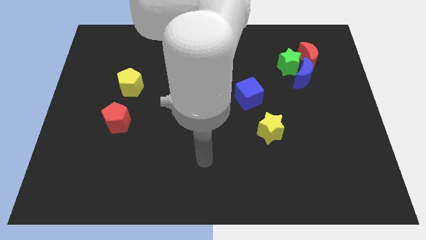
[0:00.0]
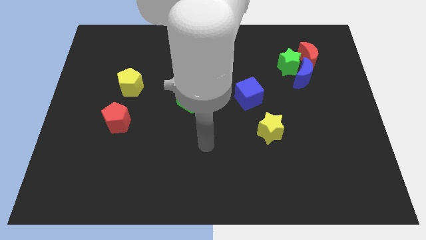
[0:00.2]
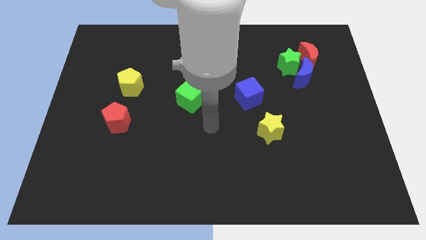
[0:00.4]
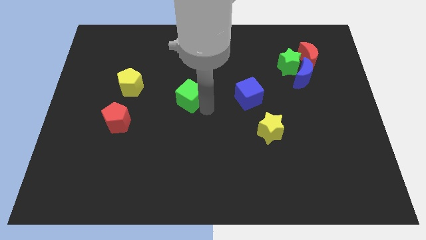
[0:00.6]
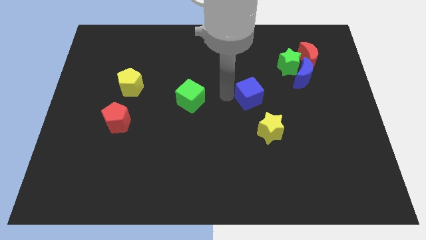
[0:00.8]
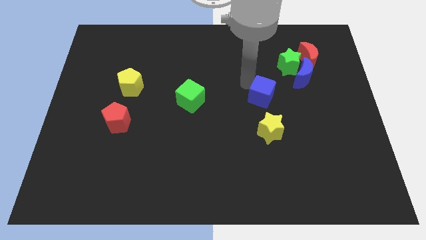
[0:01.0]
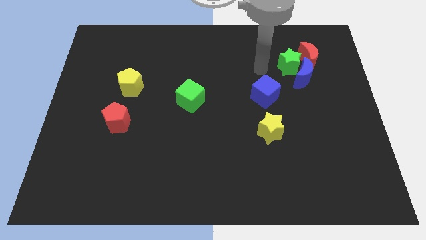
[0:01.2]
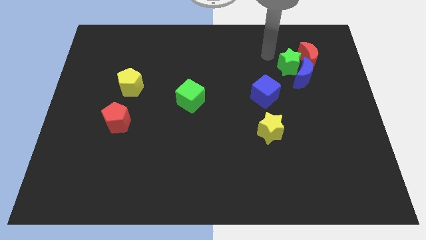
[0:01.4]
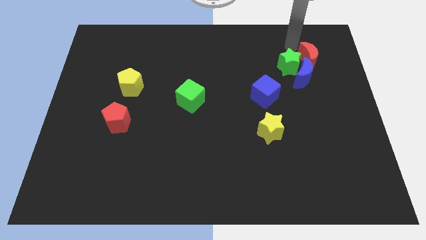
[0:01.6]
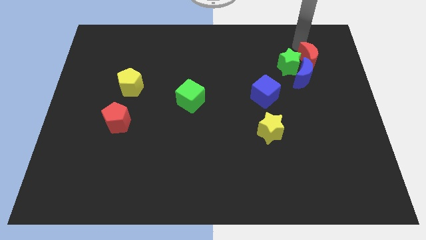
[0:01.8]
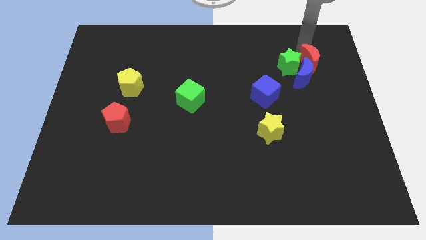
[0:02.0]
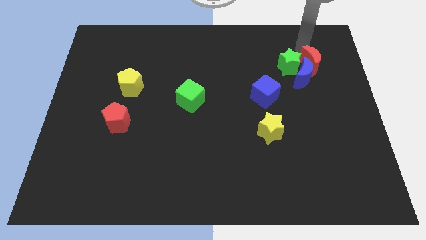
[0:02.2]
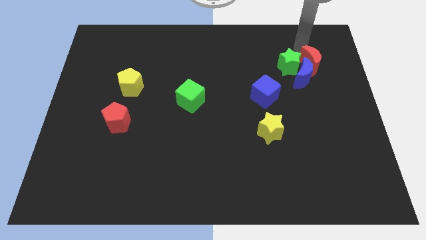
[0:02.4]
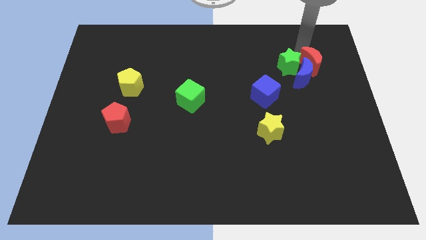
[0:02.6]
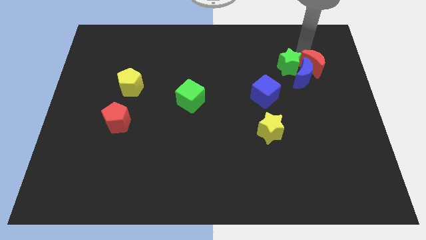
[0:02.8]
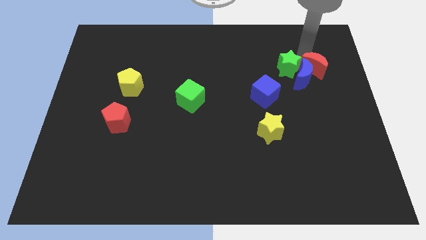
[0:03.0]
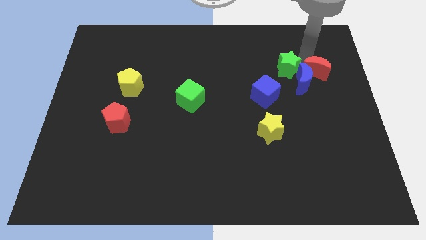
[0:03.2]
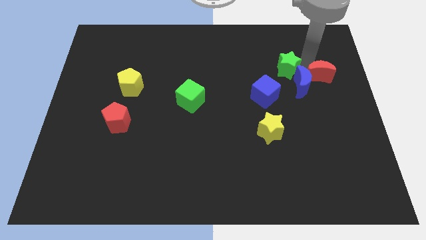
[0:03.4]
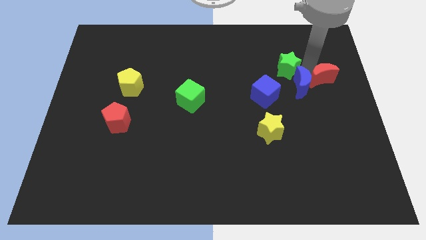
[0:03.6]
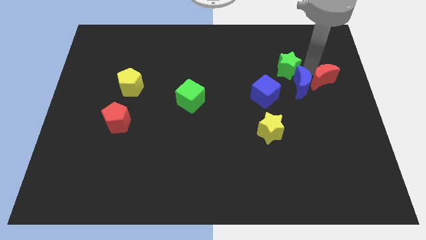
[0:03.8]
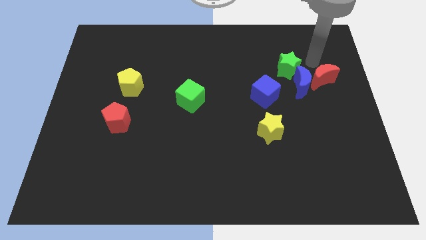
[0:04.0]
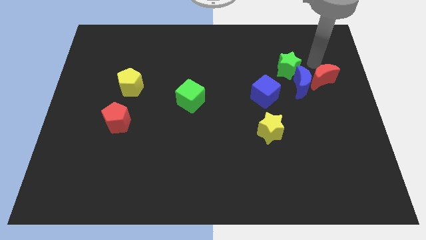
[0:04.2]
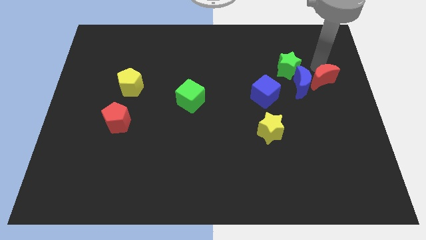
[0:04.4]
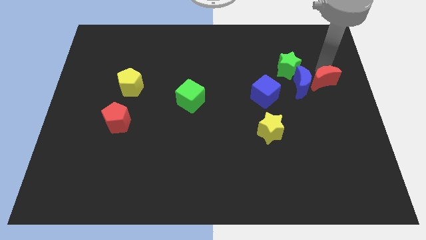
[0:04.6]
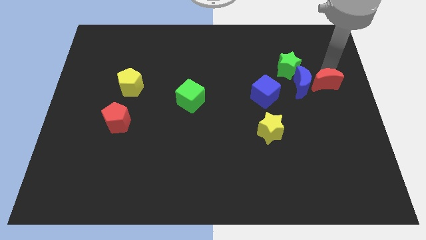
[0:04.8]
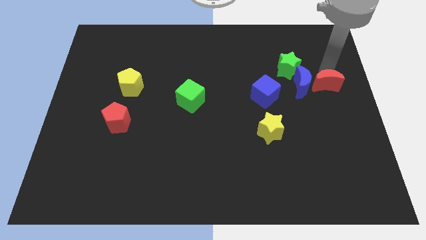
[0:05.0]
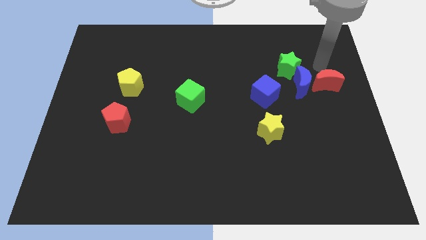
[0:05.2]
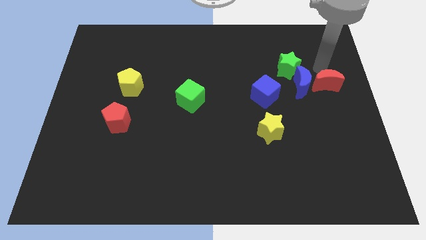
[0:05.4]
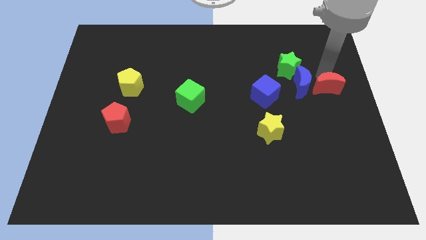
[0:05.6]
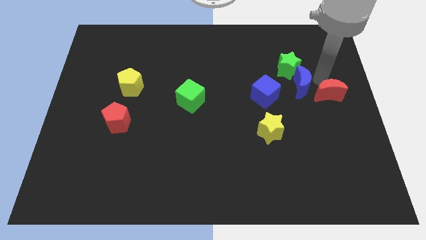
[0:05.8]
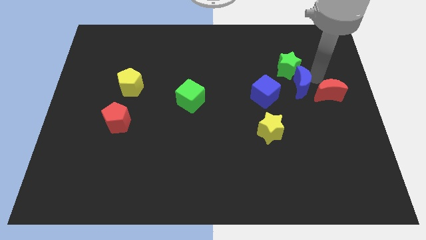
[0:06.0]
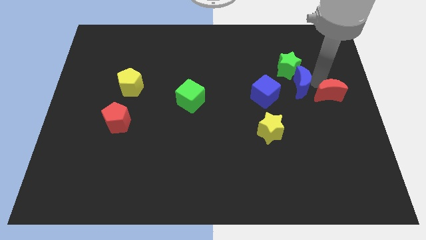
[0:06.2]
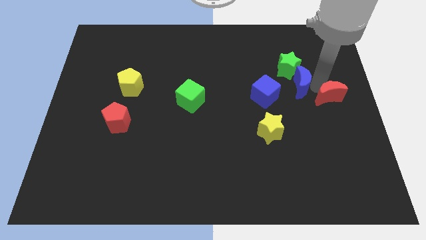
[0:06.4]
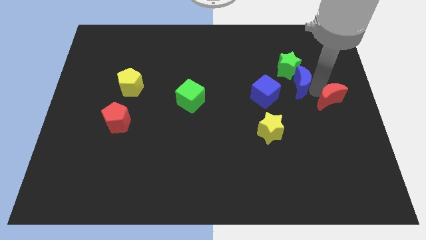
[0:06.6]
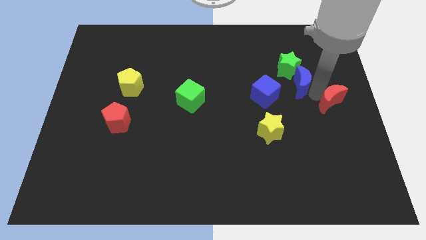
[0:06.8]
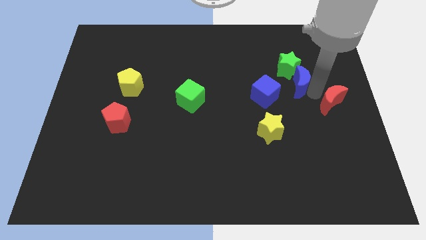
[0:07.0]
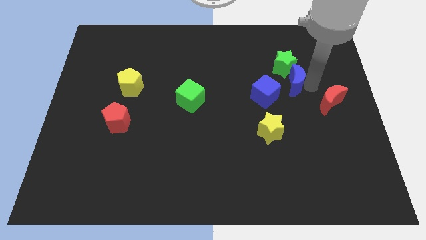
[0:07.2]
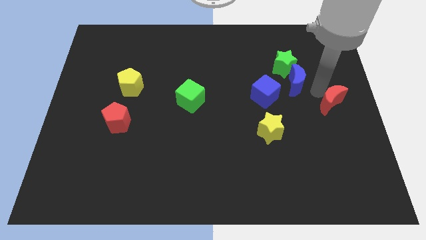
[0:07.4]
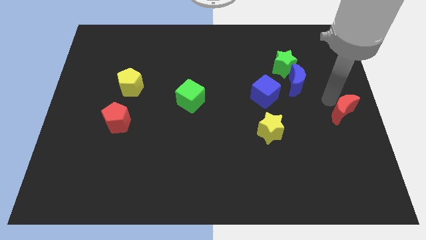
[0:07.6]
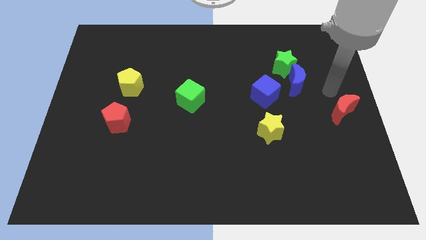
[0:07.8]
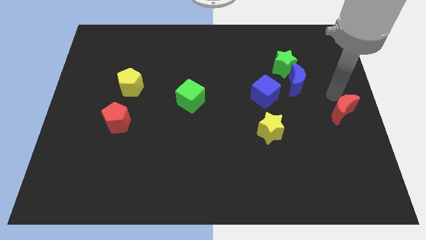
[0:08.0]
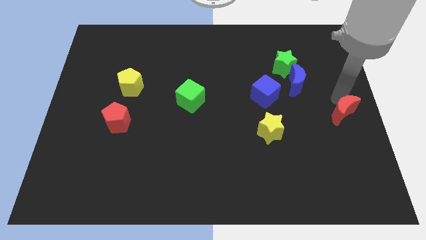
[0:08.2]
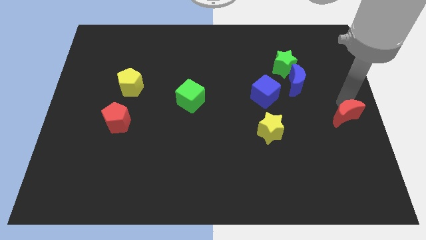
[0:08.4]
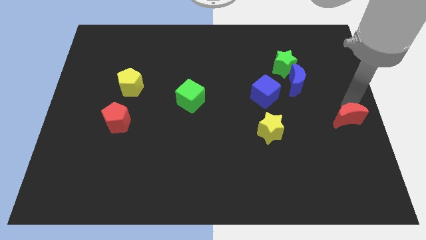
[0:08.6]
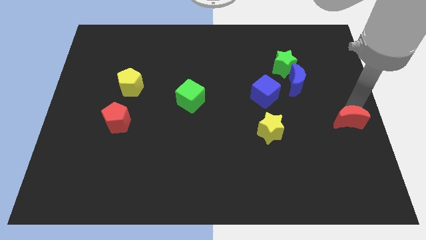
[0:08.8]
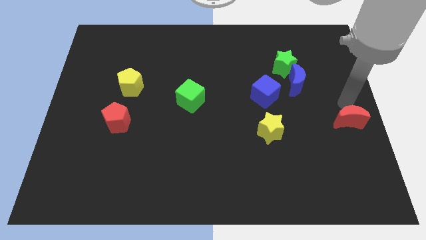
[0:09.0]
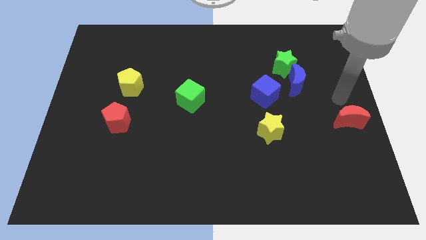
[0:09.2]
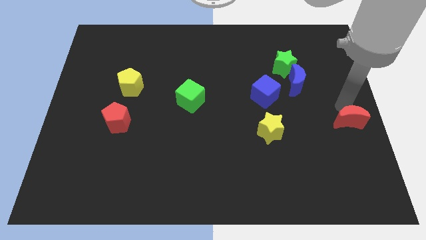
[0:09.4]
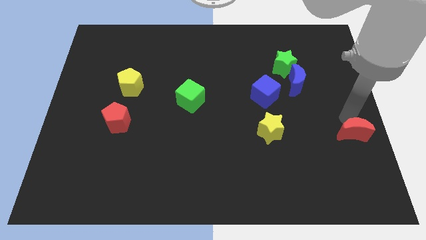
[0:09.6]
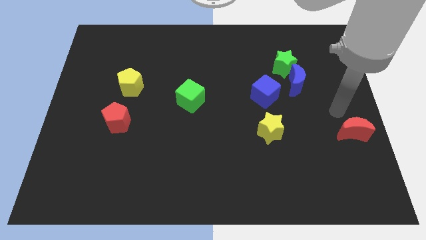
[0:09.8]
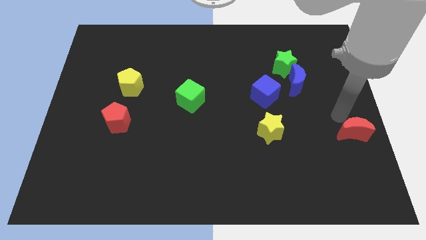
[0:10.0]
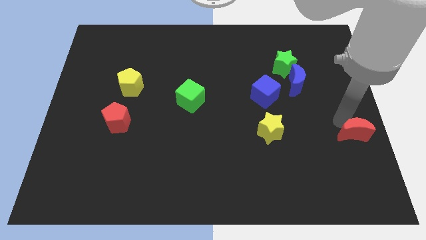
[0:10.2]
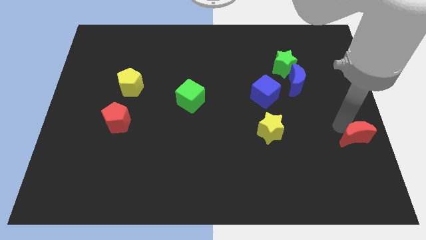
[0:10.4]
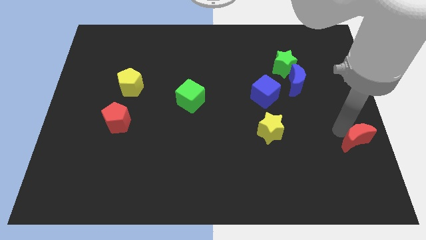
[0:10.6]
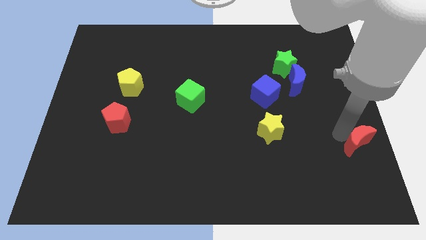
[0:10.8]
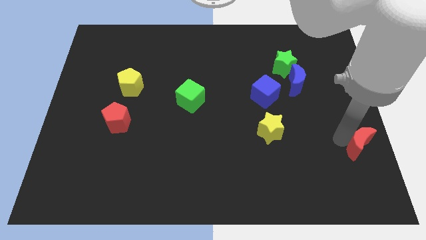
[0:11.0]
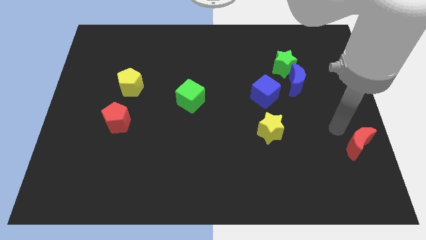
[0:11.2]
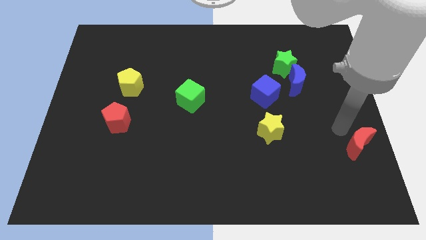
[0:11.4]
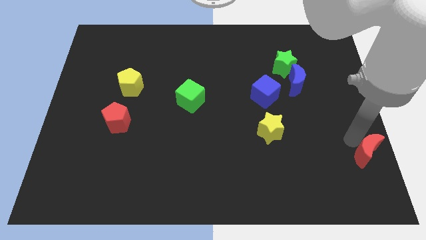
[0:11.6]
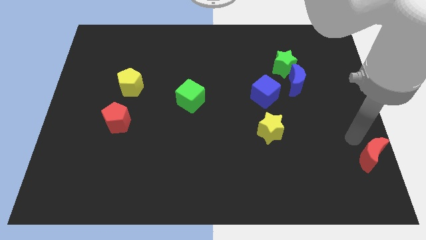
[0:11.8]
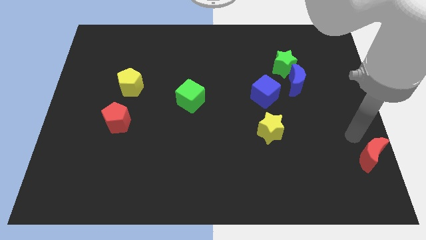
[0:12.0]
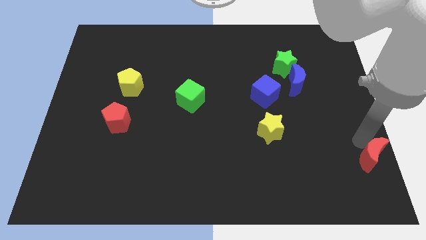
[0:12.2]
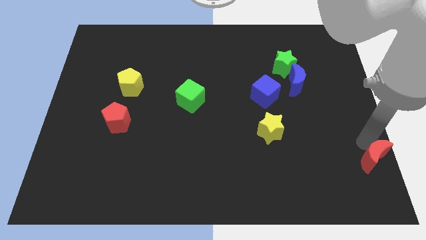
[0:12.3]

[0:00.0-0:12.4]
slide the red moon to the bottom right corner
